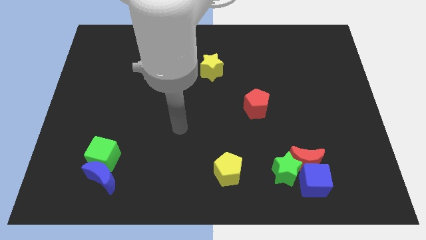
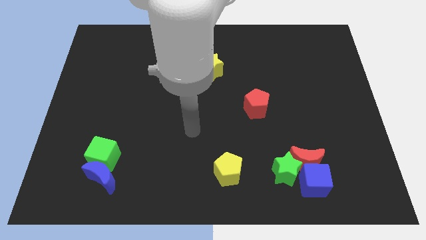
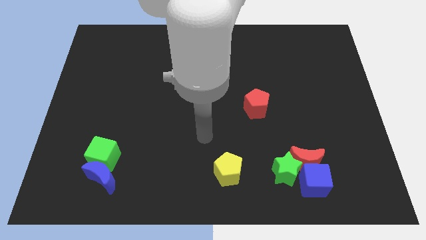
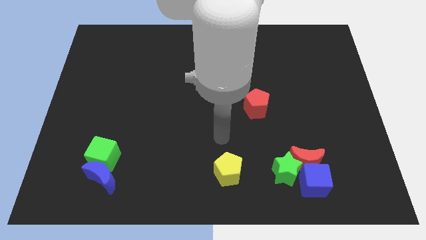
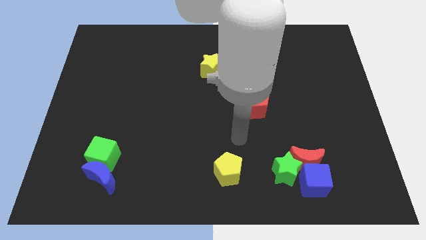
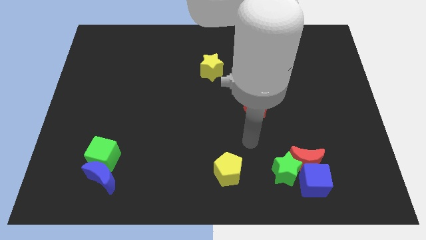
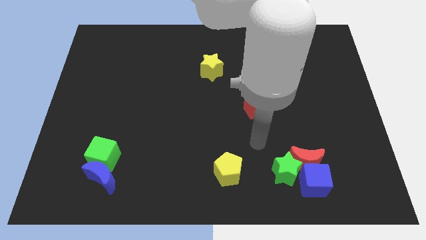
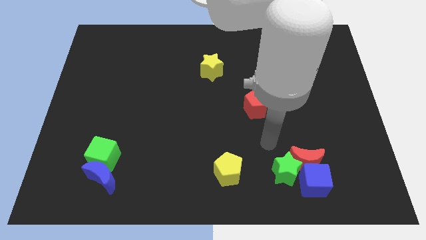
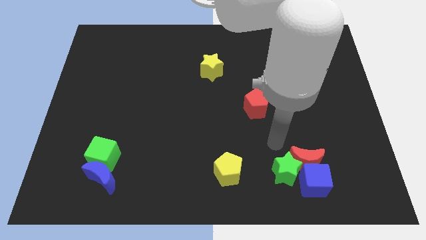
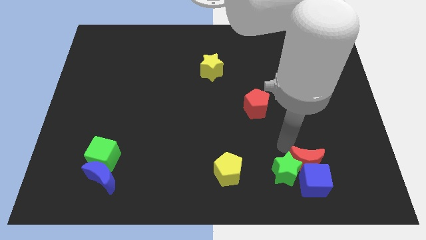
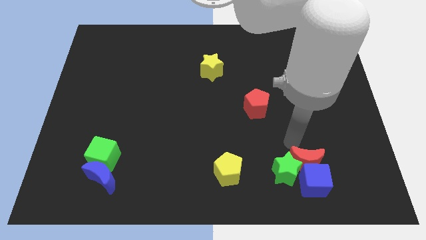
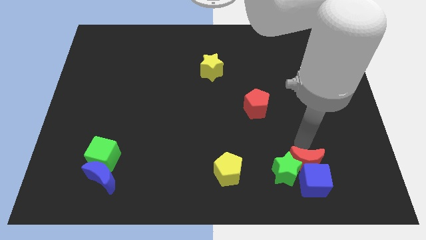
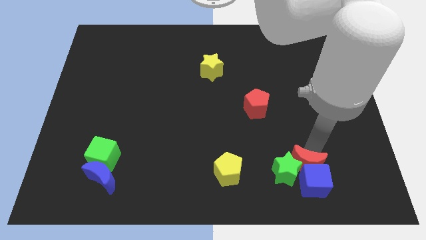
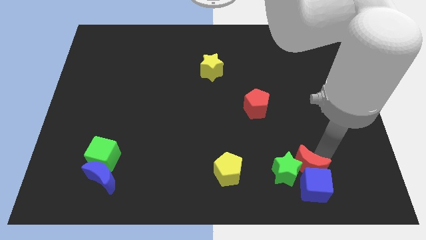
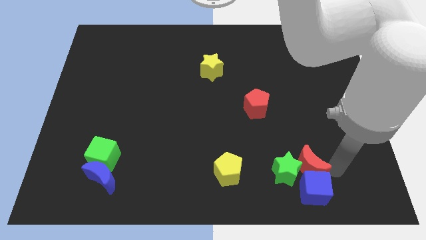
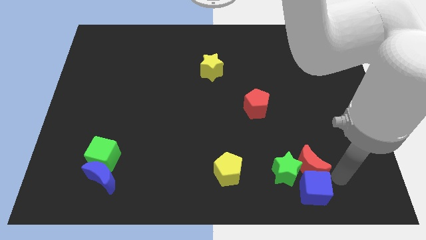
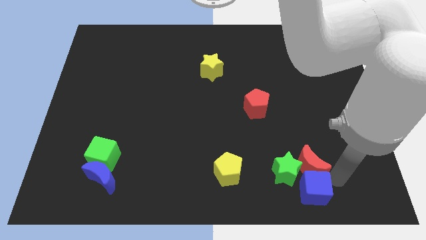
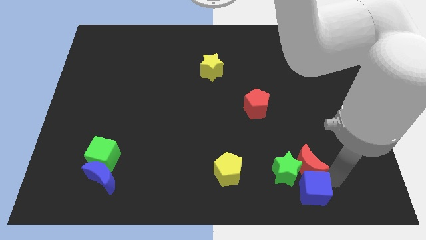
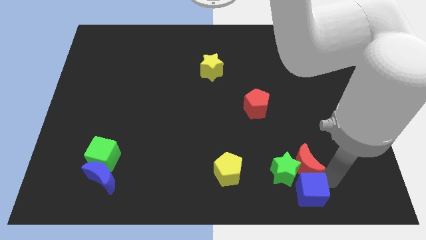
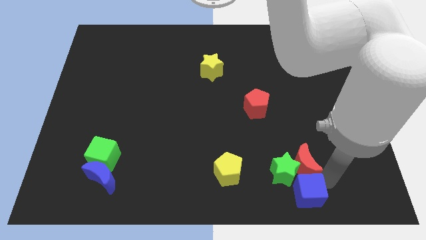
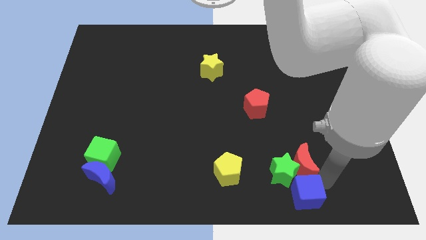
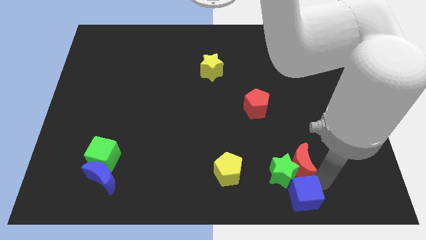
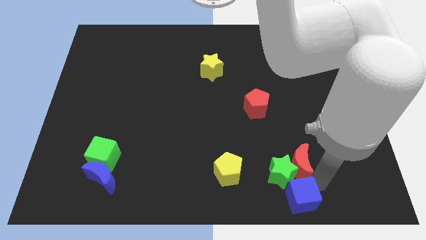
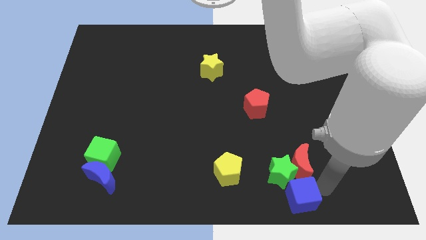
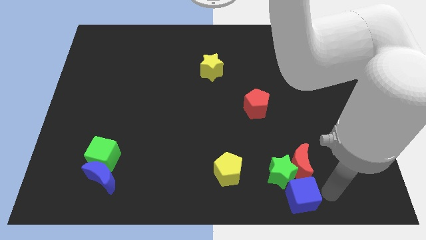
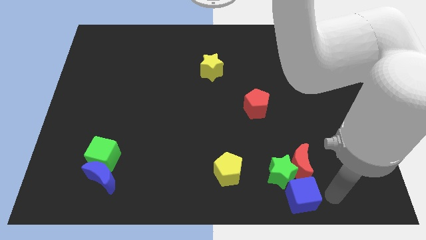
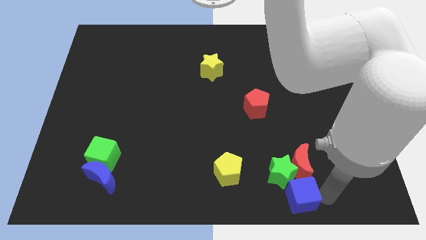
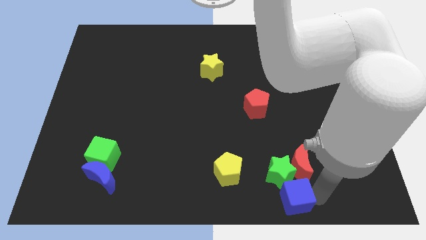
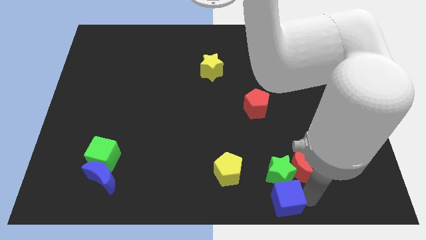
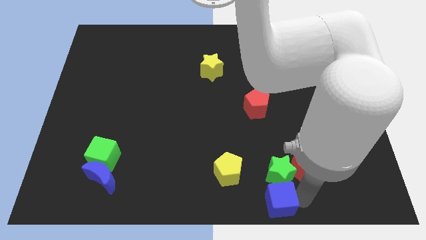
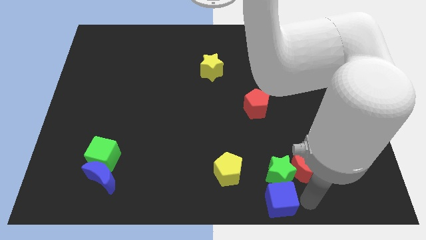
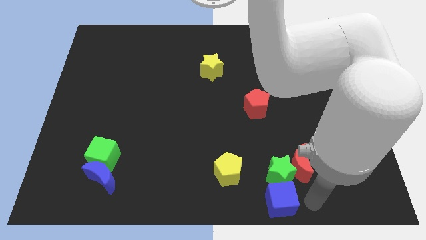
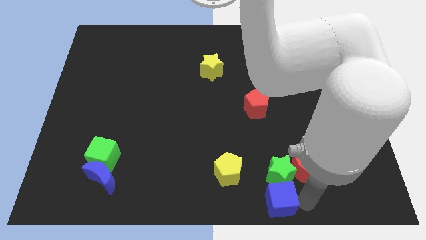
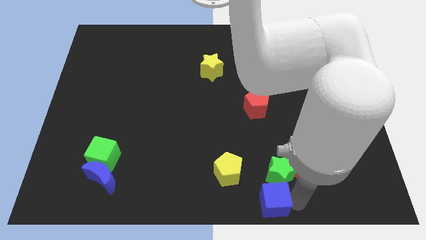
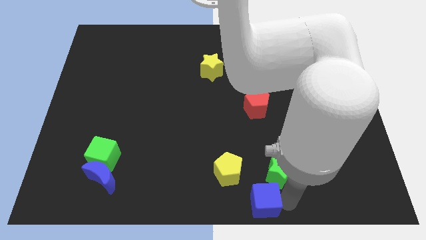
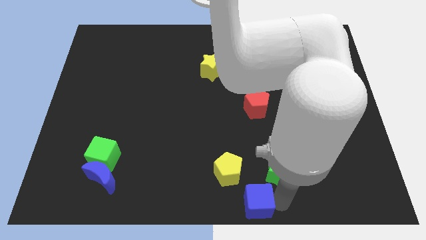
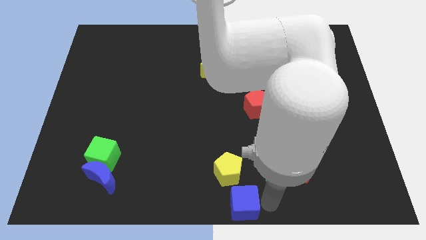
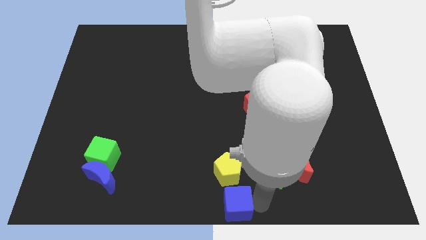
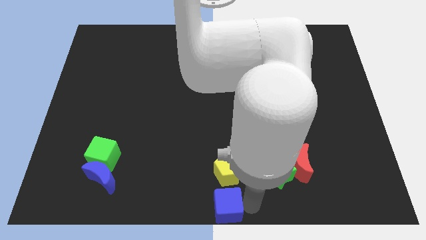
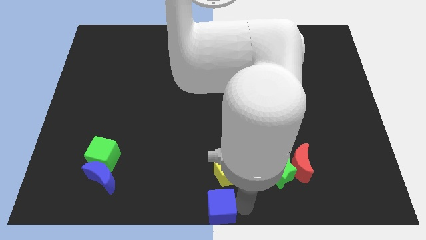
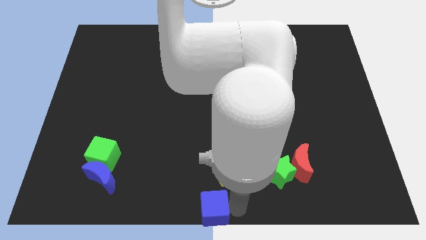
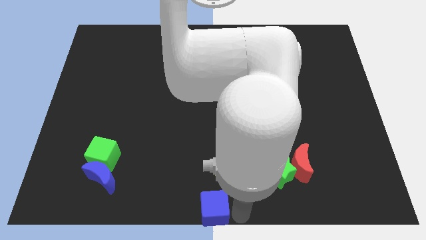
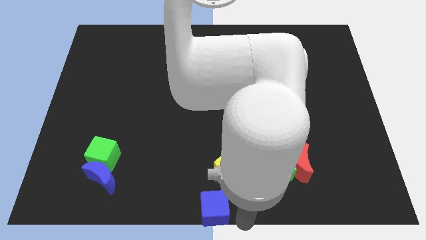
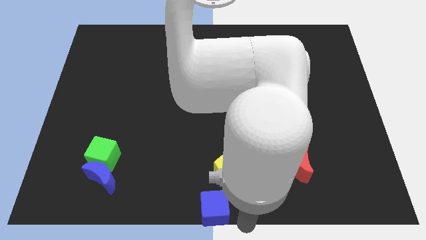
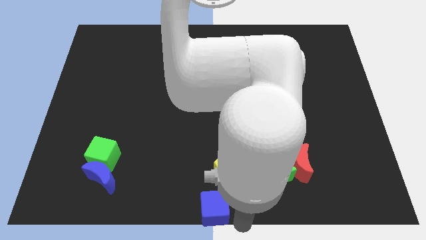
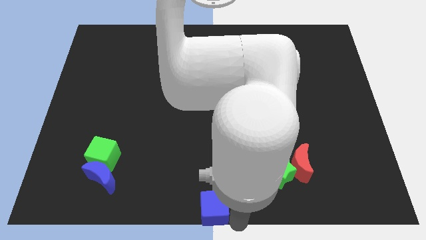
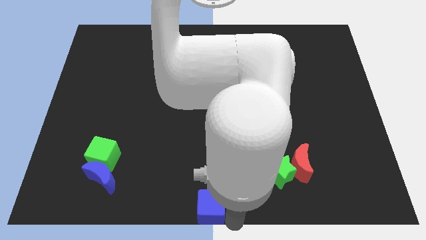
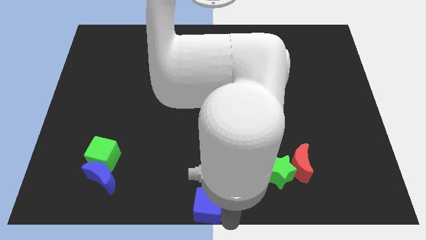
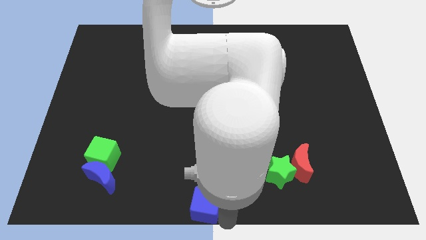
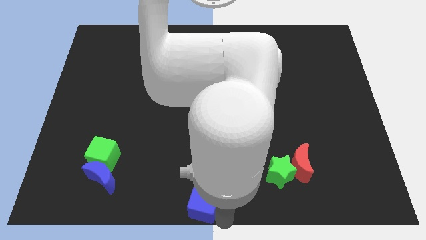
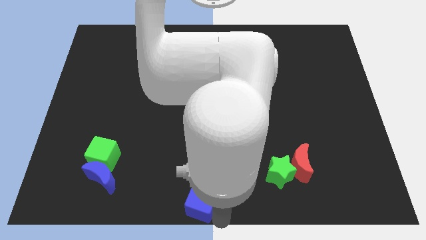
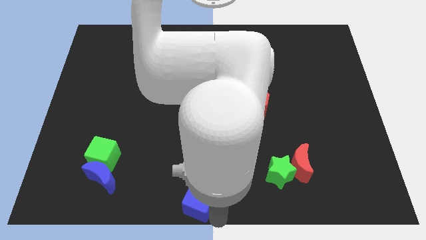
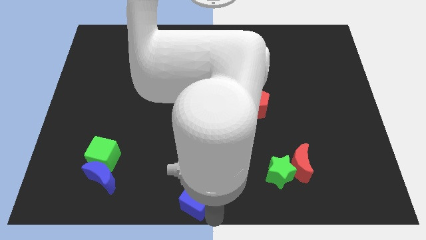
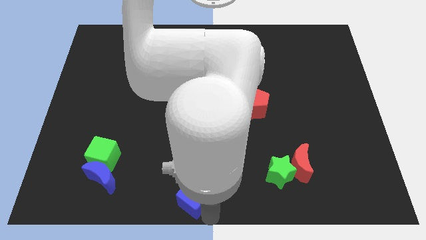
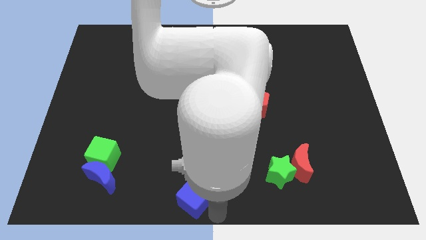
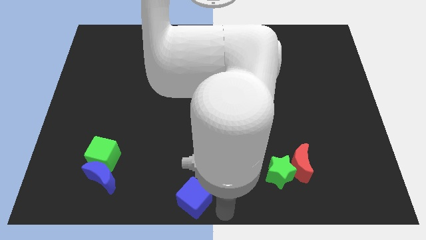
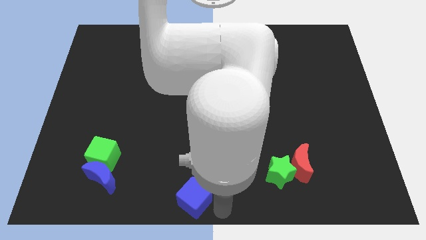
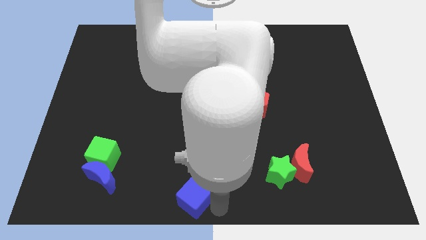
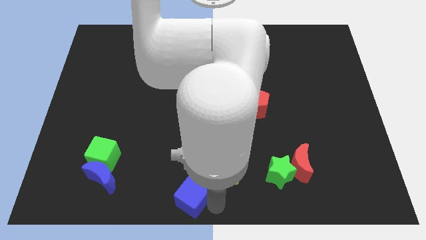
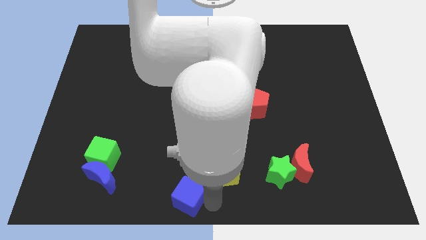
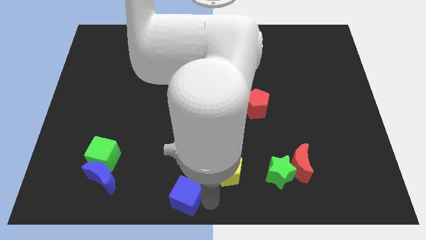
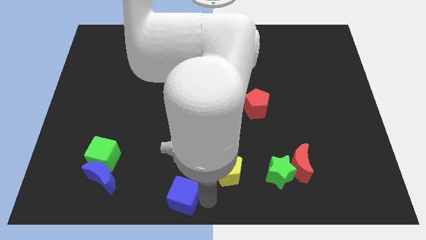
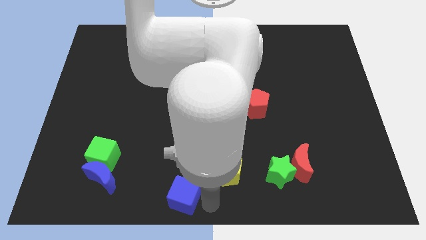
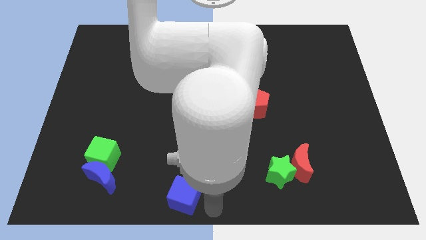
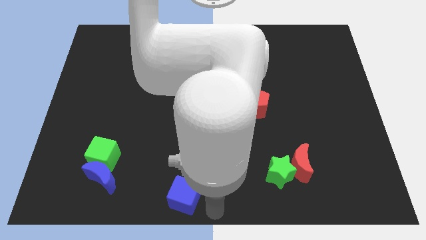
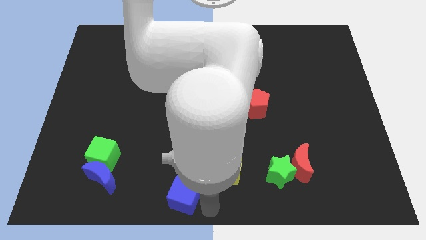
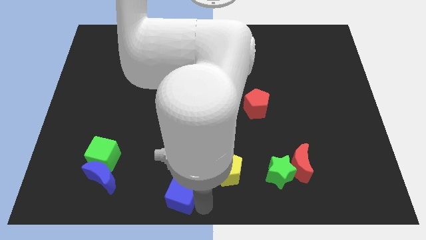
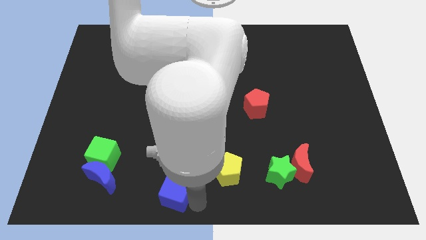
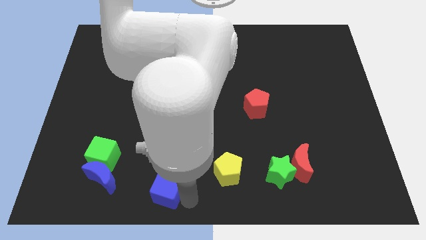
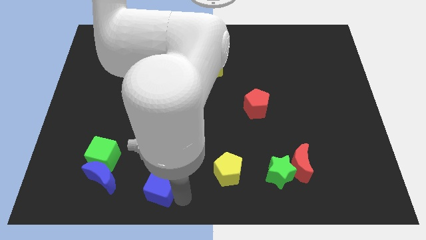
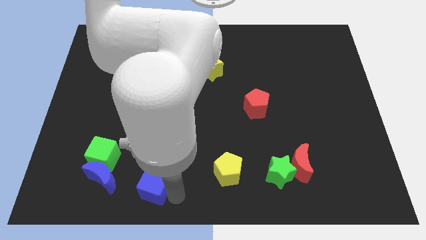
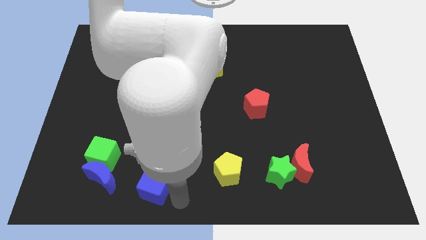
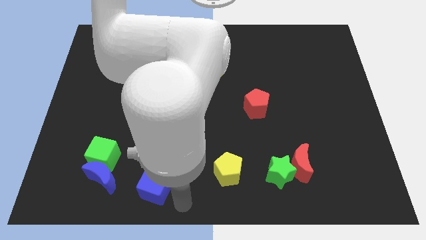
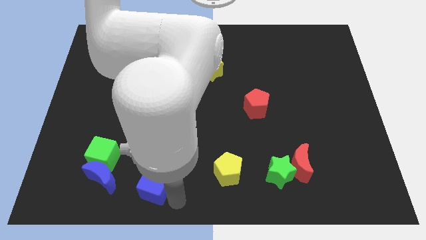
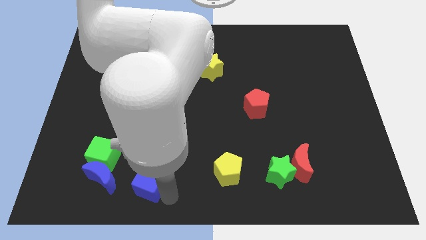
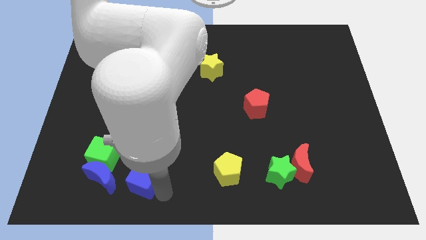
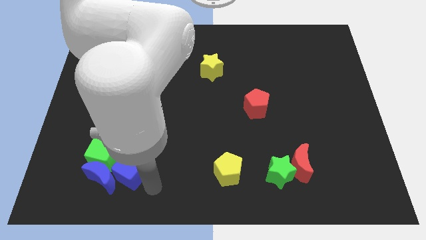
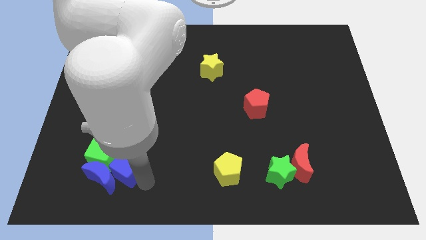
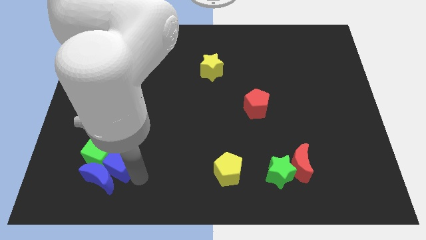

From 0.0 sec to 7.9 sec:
put the blue cube close to the green cube
